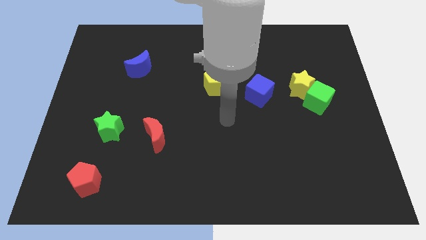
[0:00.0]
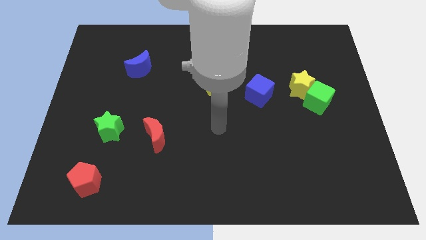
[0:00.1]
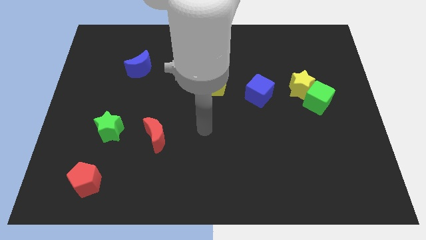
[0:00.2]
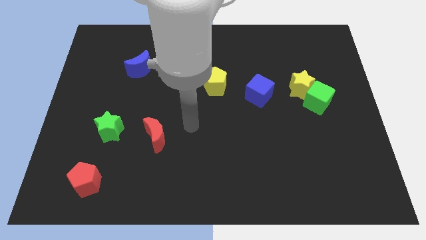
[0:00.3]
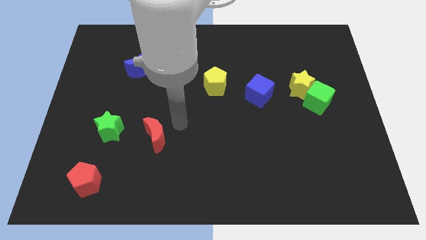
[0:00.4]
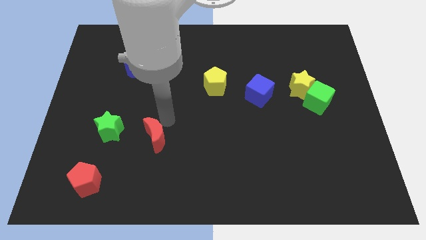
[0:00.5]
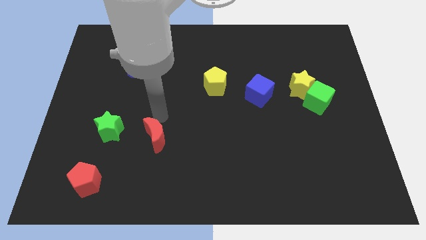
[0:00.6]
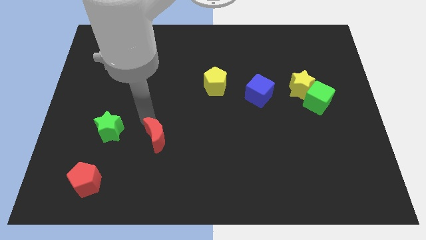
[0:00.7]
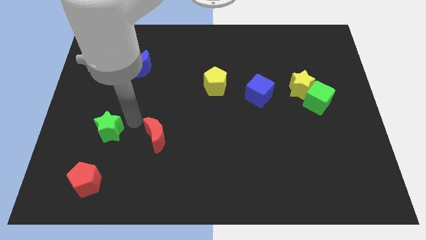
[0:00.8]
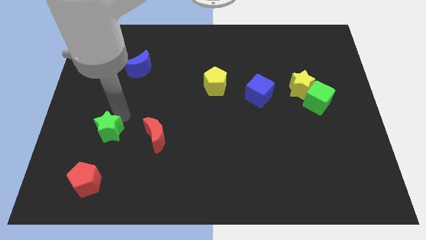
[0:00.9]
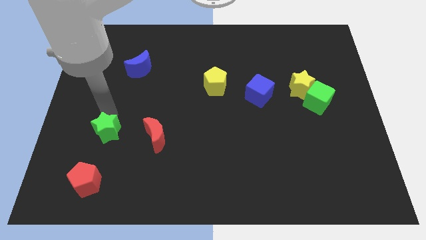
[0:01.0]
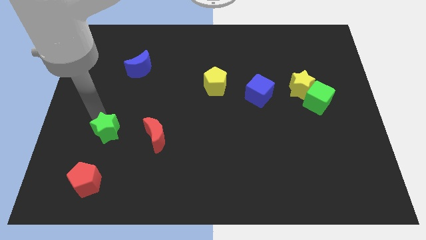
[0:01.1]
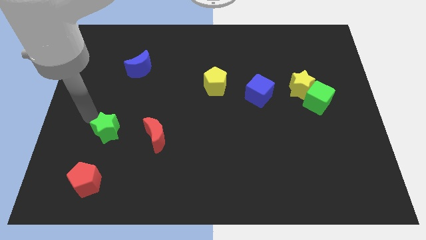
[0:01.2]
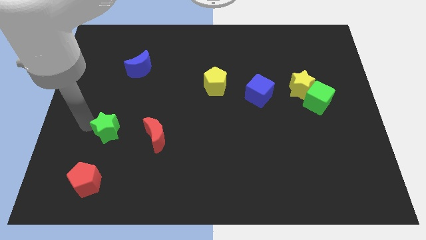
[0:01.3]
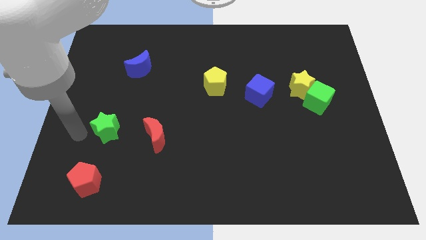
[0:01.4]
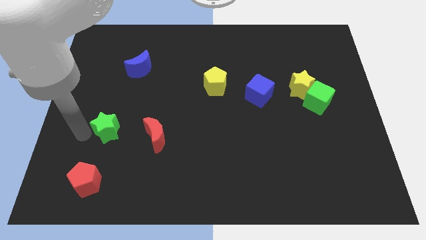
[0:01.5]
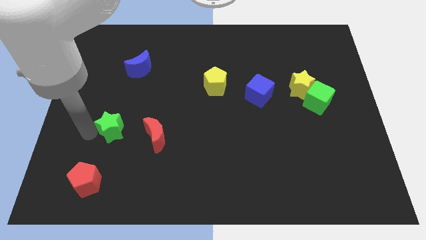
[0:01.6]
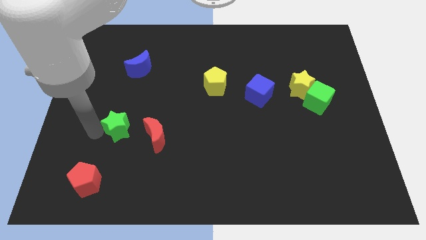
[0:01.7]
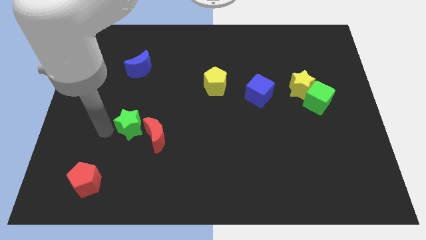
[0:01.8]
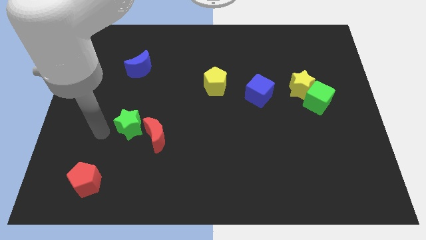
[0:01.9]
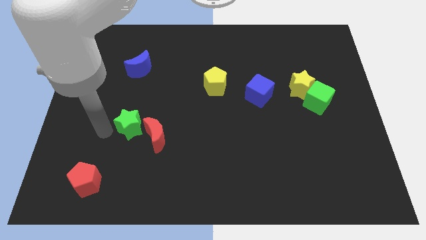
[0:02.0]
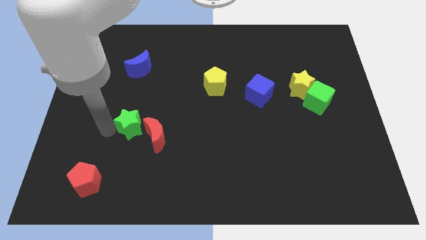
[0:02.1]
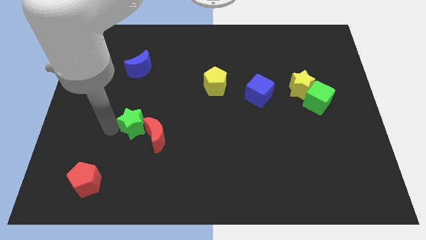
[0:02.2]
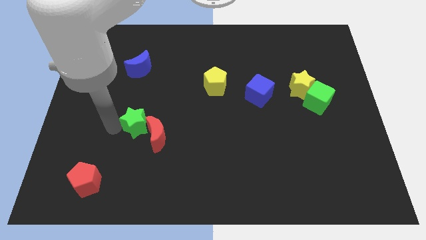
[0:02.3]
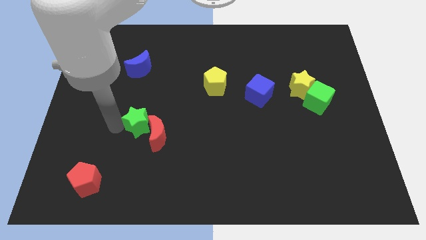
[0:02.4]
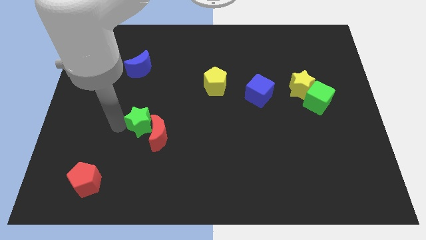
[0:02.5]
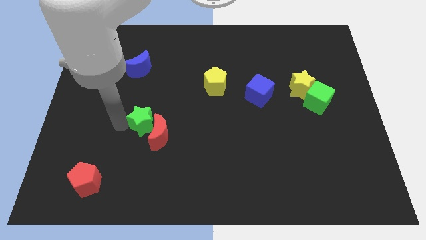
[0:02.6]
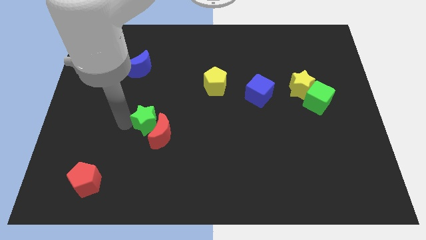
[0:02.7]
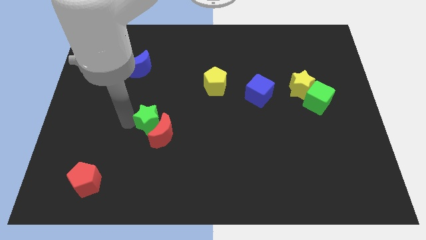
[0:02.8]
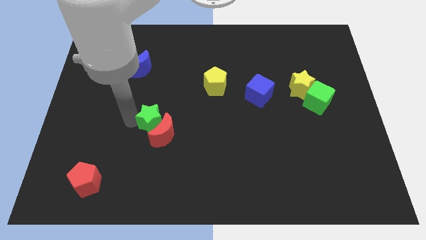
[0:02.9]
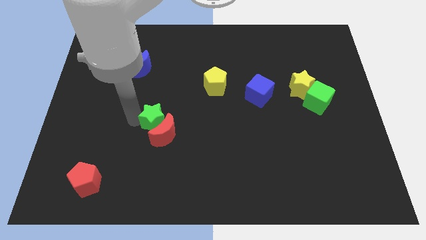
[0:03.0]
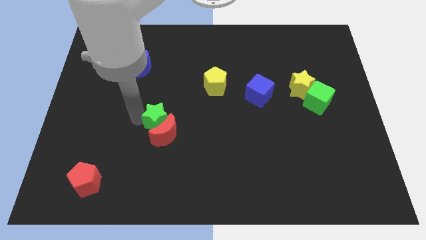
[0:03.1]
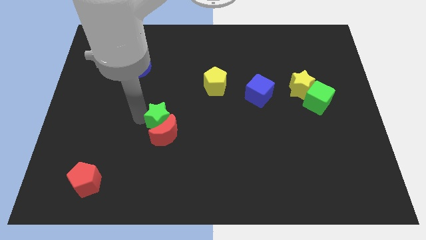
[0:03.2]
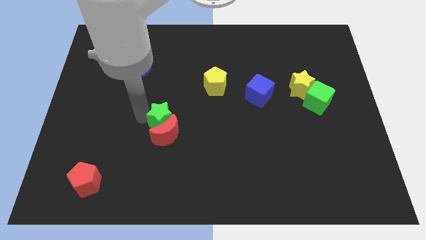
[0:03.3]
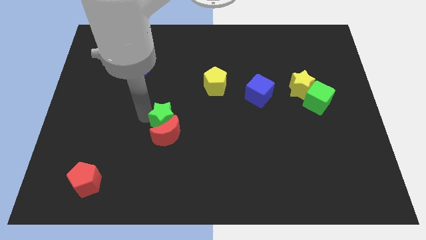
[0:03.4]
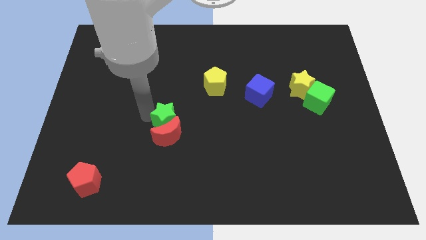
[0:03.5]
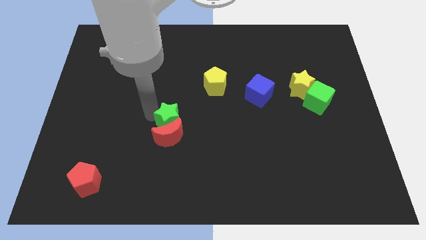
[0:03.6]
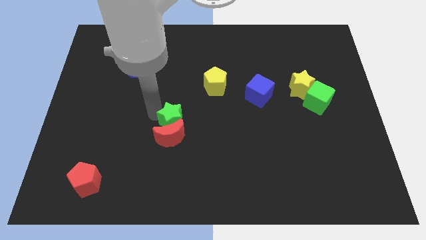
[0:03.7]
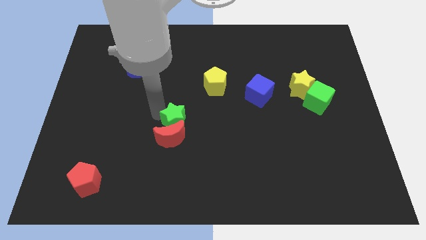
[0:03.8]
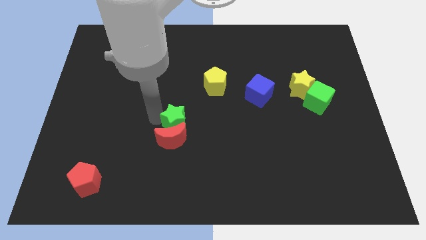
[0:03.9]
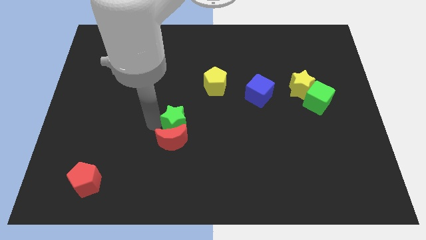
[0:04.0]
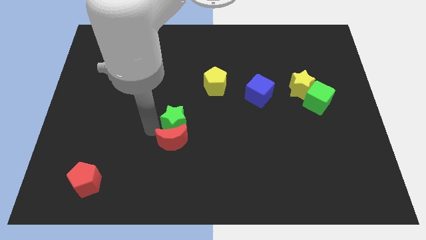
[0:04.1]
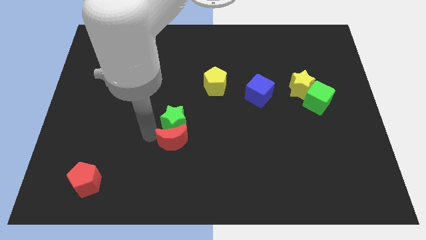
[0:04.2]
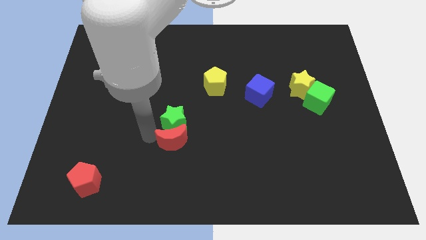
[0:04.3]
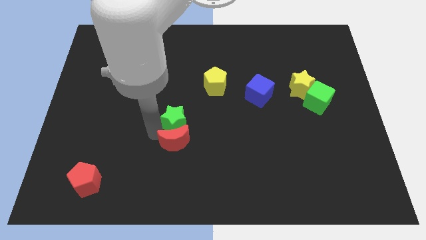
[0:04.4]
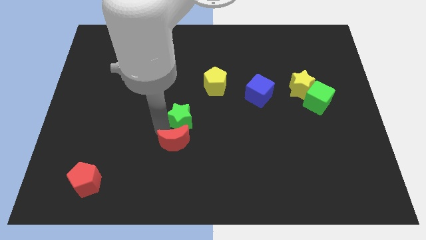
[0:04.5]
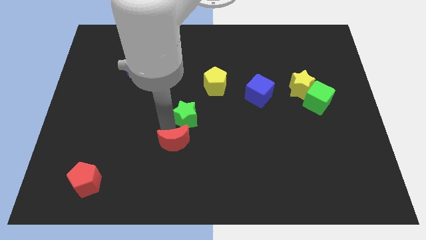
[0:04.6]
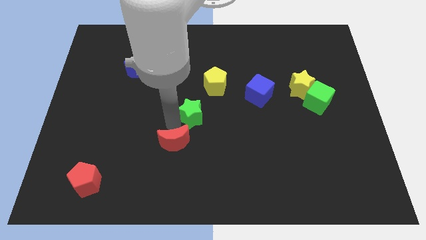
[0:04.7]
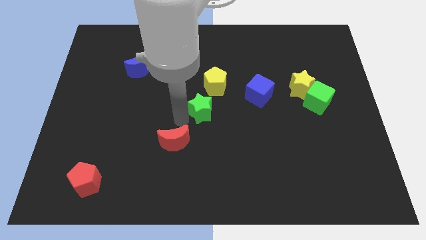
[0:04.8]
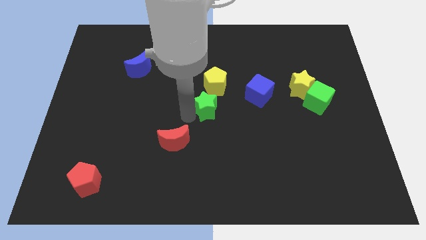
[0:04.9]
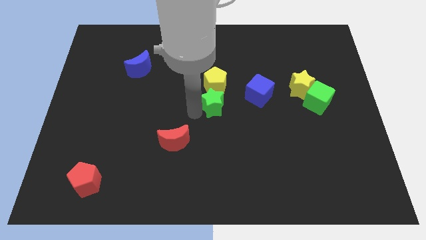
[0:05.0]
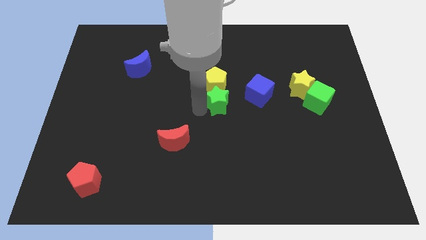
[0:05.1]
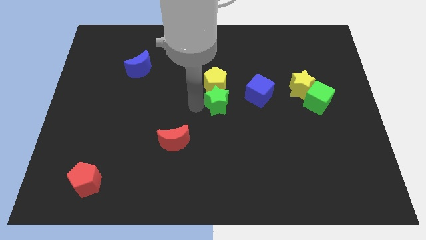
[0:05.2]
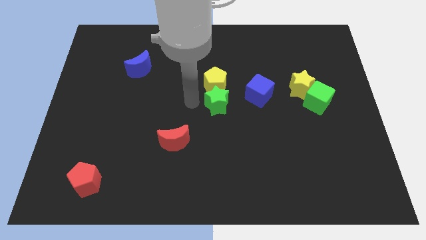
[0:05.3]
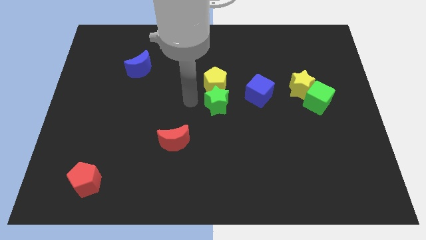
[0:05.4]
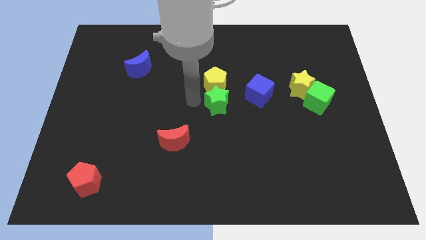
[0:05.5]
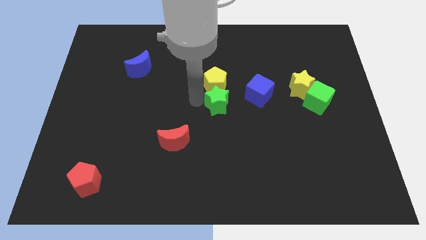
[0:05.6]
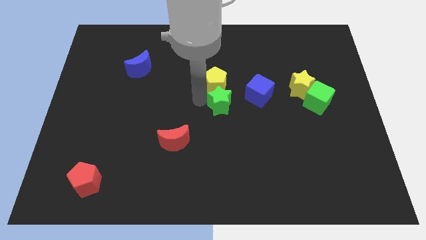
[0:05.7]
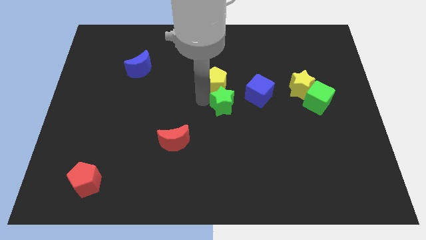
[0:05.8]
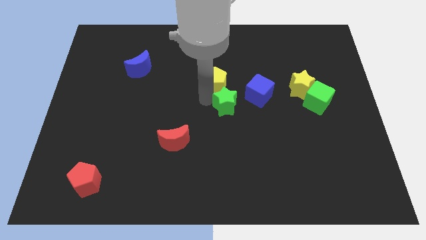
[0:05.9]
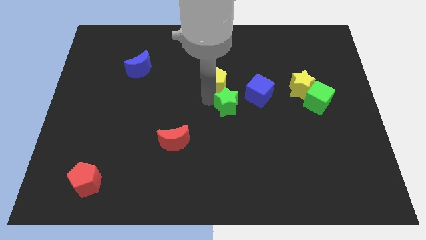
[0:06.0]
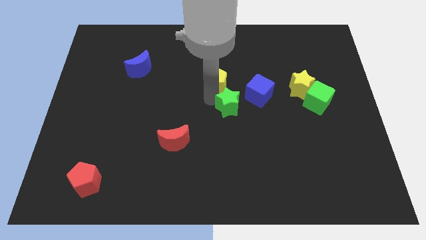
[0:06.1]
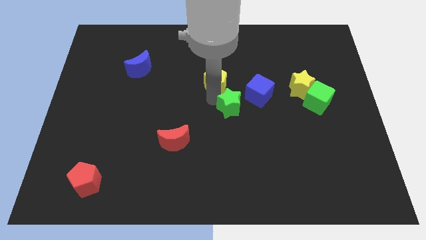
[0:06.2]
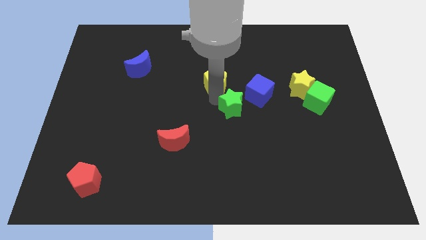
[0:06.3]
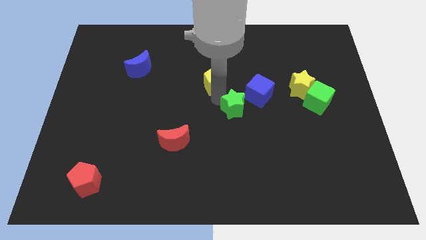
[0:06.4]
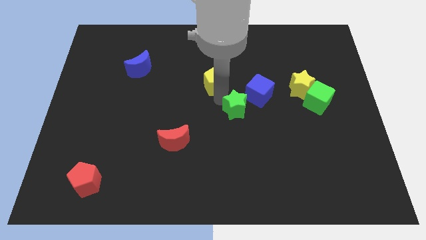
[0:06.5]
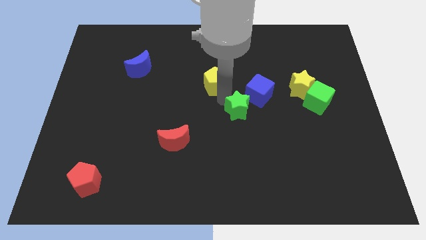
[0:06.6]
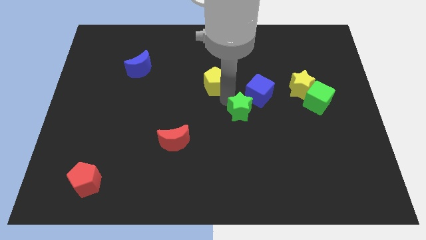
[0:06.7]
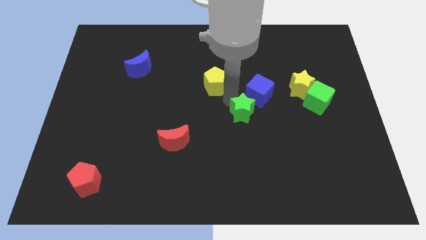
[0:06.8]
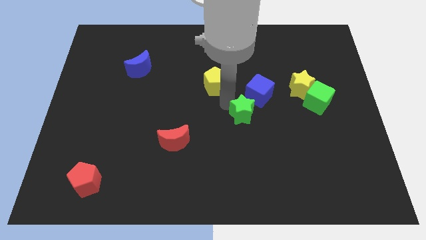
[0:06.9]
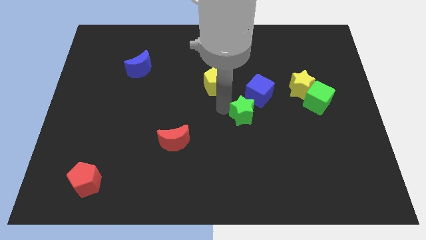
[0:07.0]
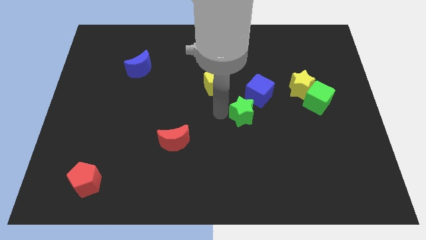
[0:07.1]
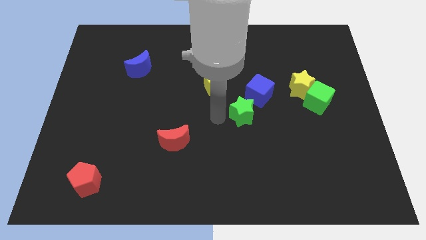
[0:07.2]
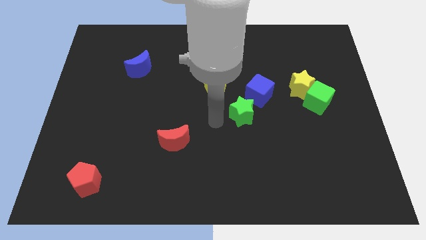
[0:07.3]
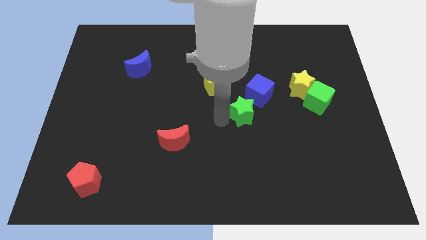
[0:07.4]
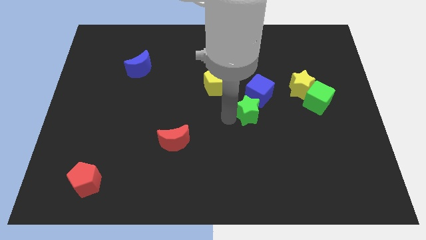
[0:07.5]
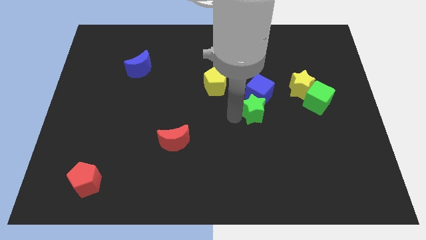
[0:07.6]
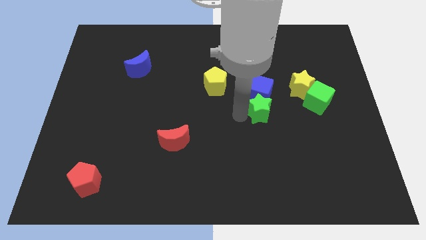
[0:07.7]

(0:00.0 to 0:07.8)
push the green star to the bottom left of the yellow star
